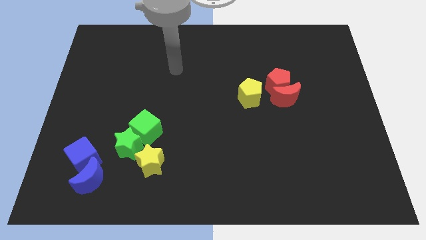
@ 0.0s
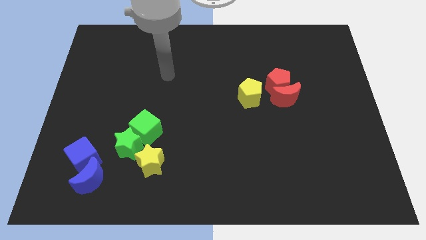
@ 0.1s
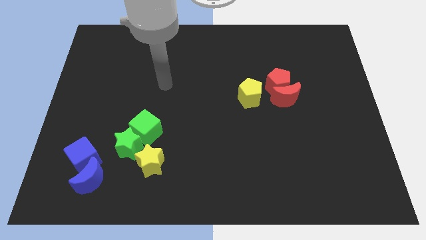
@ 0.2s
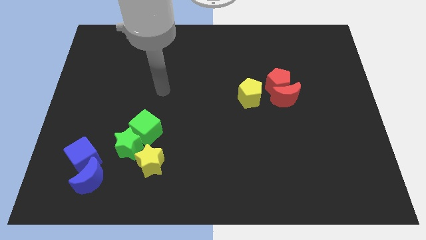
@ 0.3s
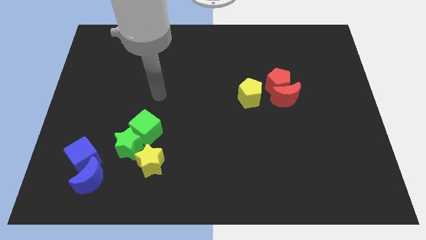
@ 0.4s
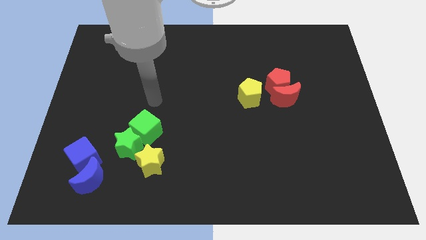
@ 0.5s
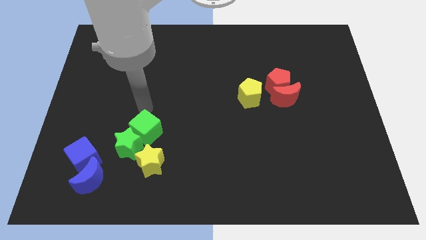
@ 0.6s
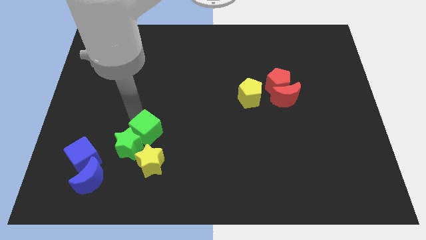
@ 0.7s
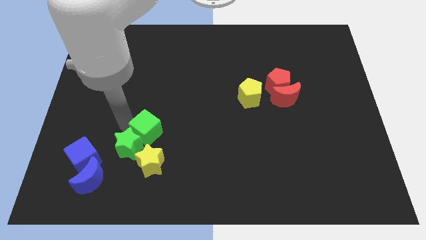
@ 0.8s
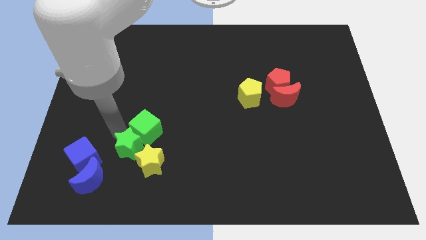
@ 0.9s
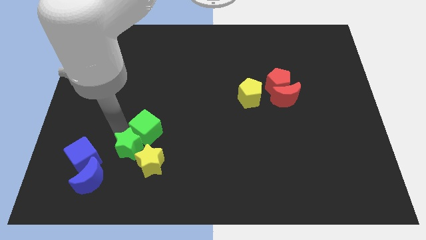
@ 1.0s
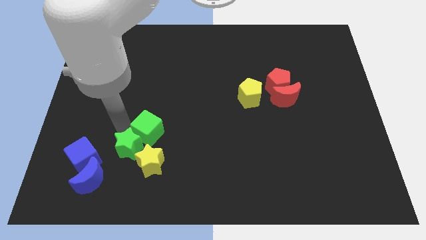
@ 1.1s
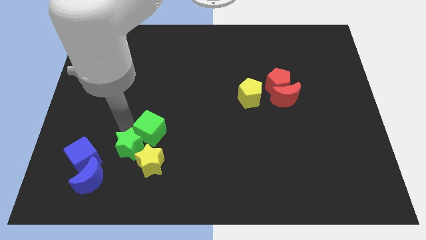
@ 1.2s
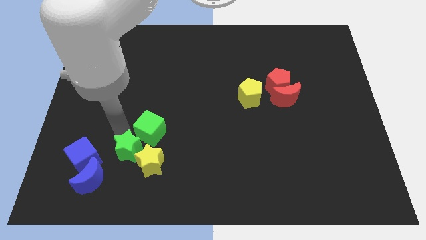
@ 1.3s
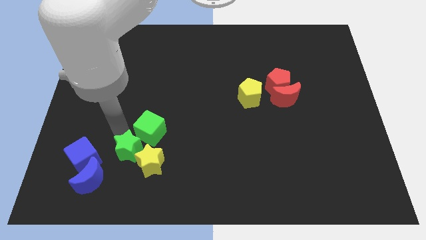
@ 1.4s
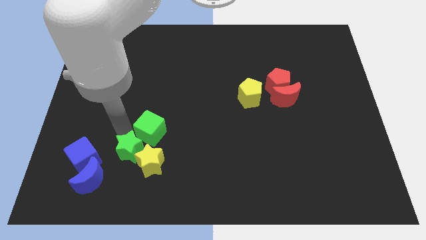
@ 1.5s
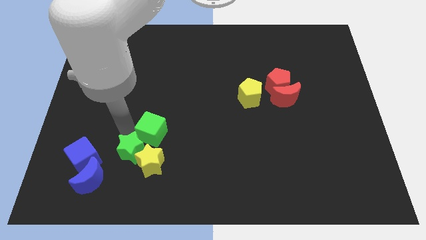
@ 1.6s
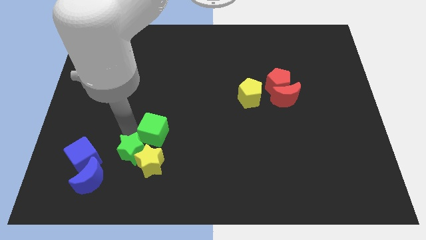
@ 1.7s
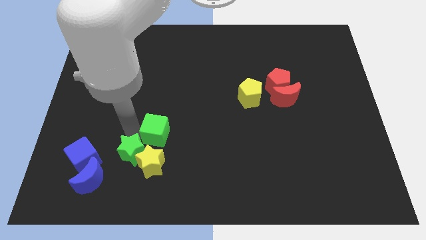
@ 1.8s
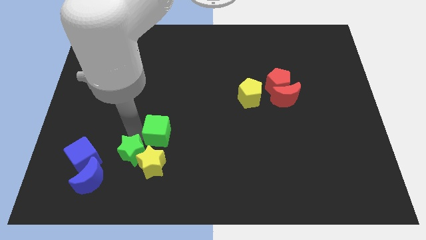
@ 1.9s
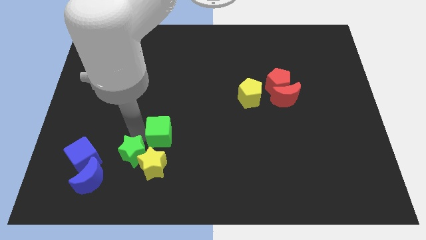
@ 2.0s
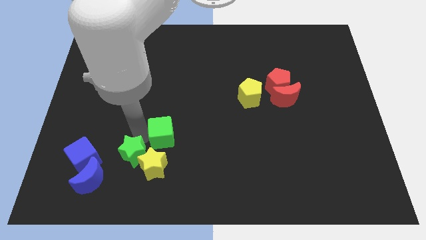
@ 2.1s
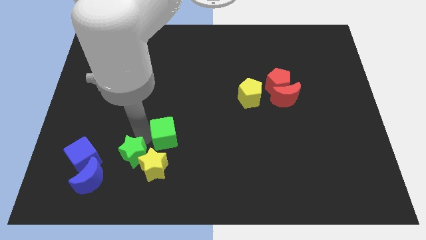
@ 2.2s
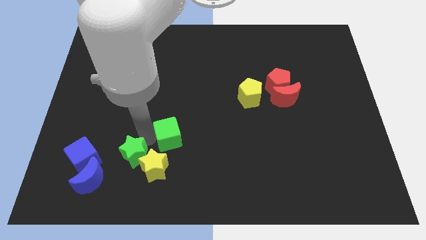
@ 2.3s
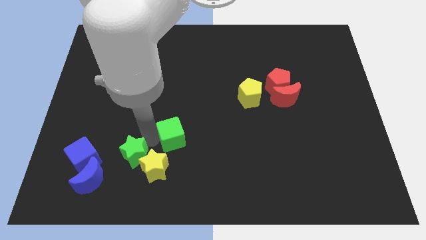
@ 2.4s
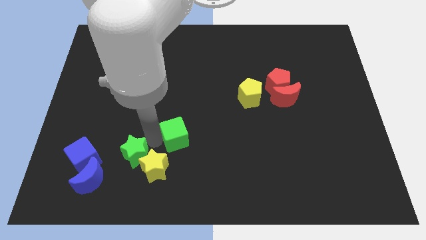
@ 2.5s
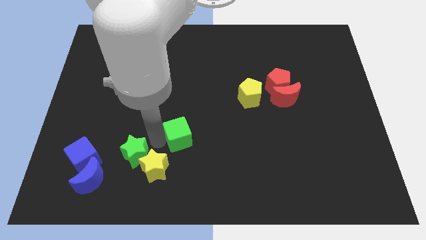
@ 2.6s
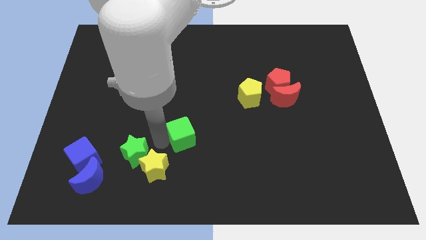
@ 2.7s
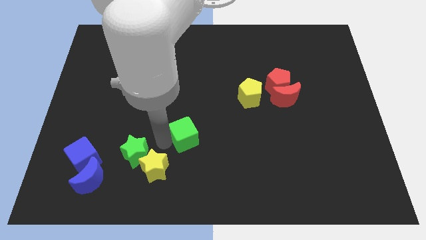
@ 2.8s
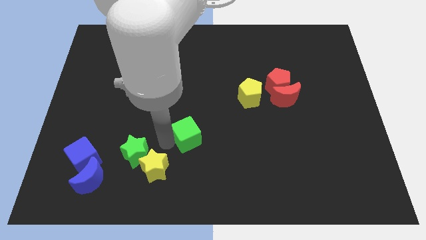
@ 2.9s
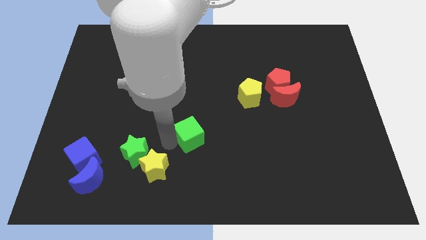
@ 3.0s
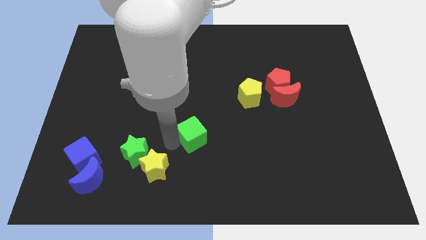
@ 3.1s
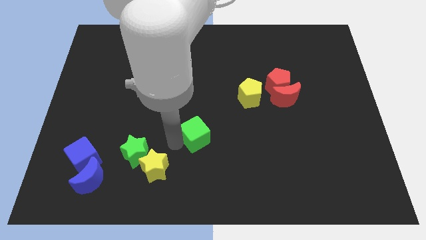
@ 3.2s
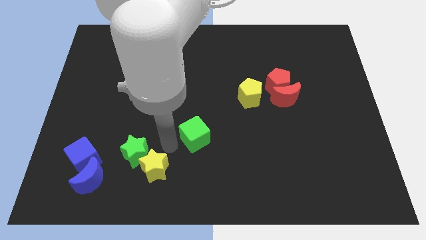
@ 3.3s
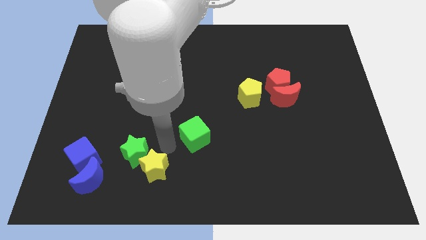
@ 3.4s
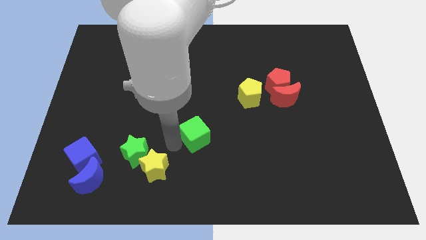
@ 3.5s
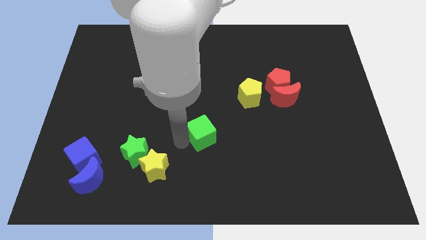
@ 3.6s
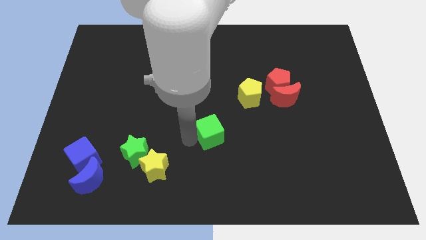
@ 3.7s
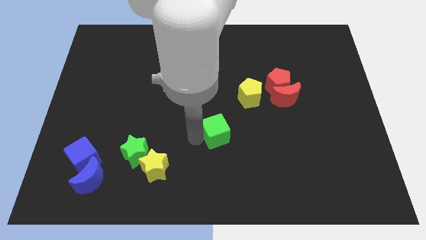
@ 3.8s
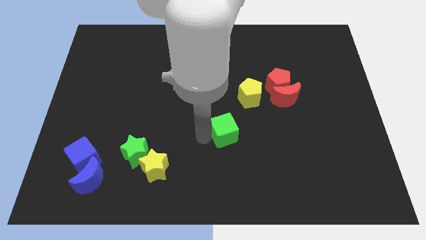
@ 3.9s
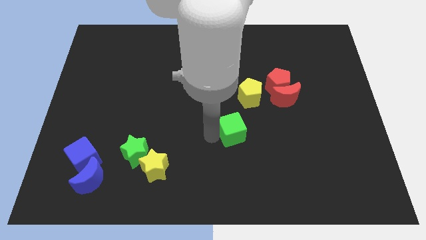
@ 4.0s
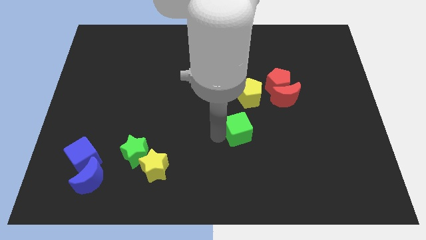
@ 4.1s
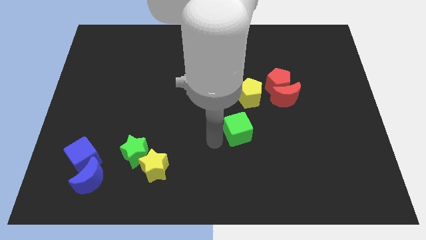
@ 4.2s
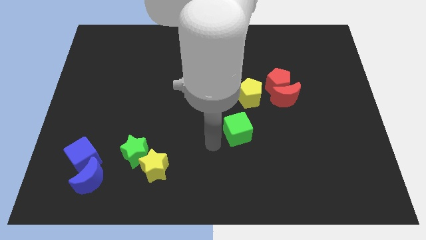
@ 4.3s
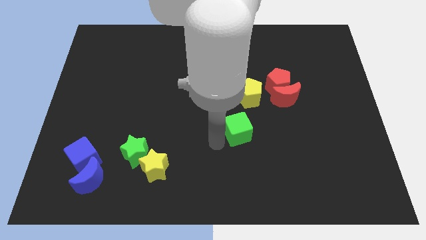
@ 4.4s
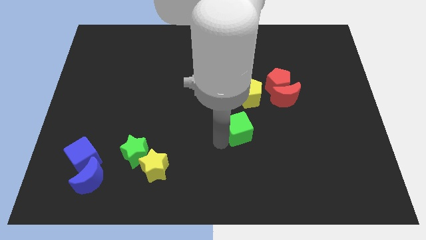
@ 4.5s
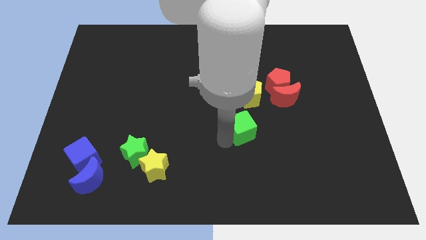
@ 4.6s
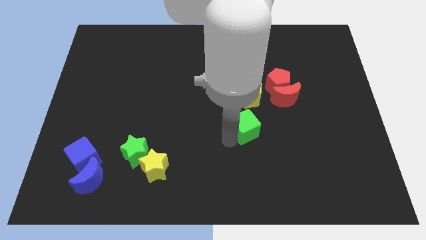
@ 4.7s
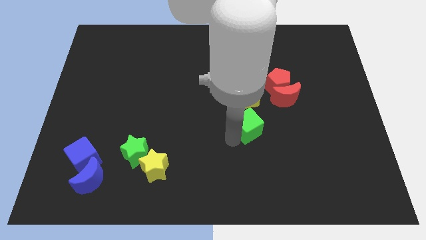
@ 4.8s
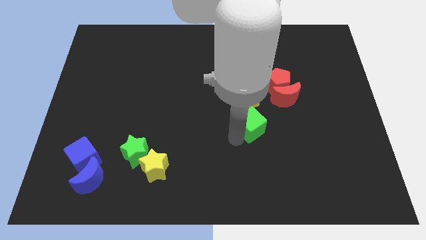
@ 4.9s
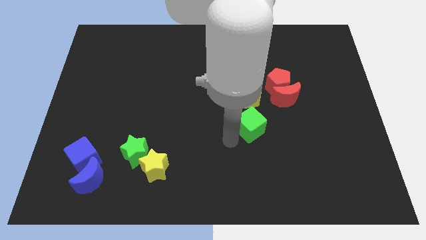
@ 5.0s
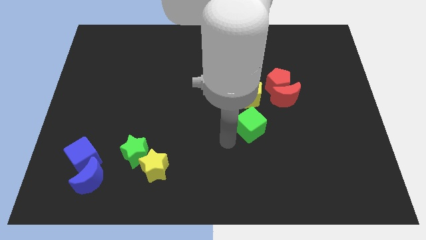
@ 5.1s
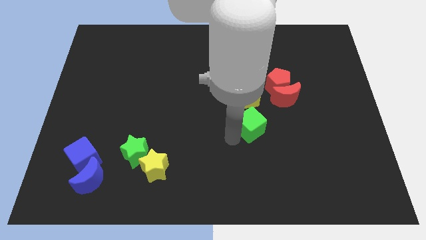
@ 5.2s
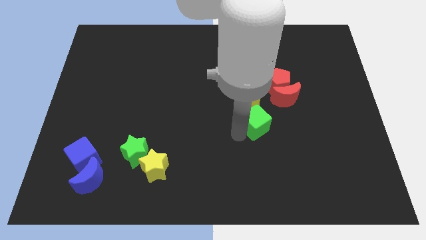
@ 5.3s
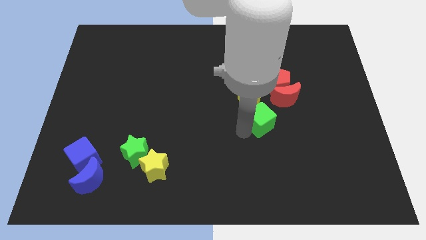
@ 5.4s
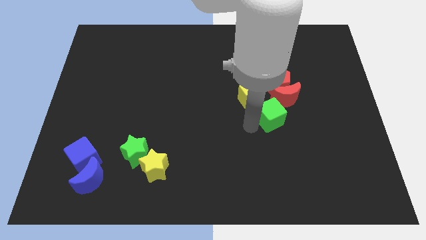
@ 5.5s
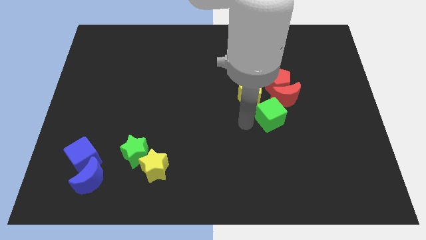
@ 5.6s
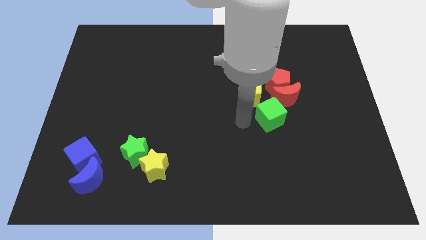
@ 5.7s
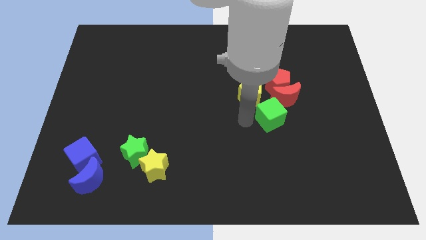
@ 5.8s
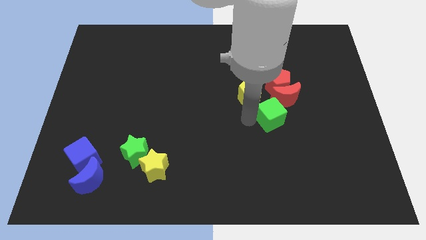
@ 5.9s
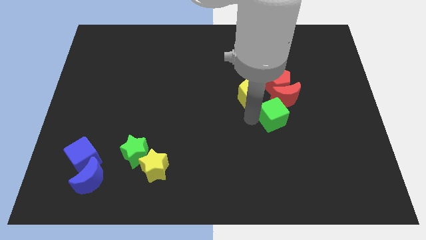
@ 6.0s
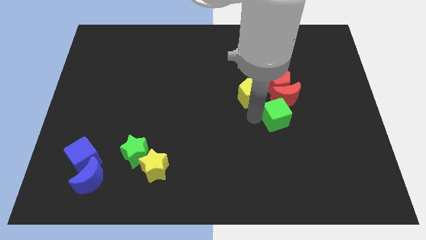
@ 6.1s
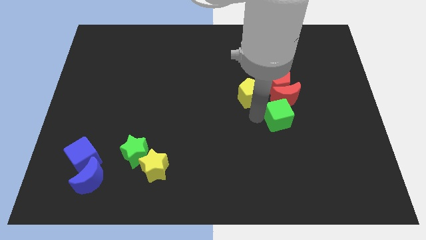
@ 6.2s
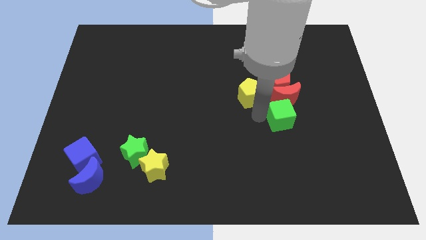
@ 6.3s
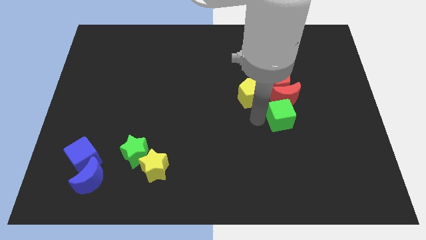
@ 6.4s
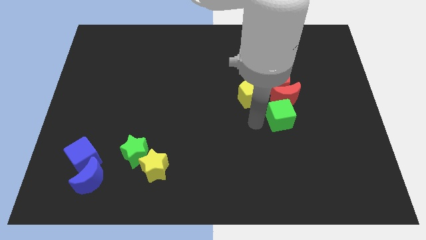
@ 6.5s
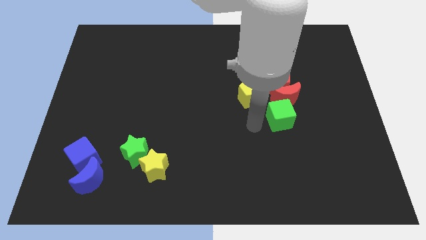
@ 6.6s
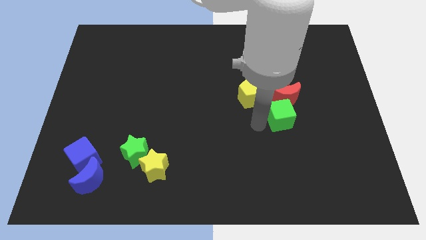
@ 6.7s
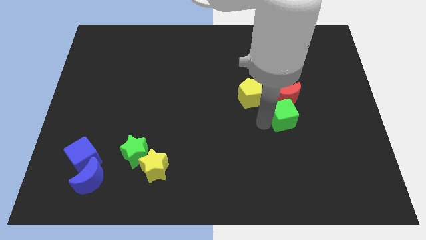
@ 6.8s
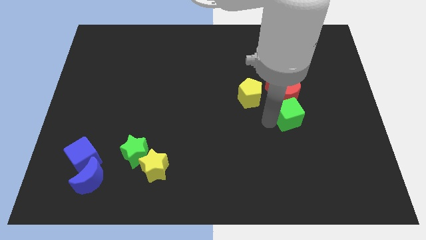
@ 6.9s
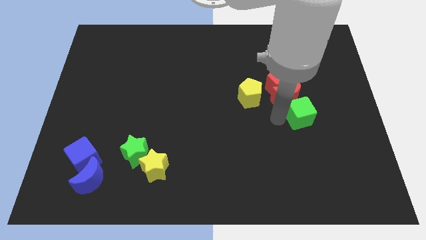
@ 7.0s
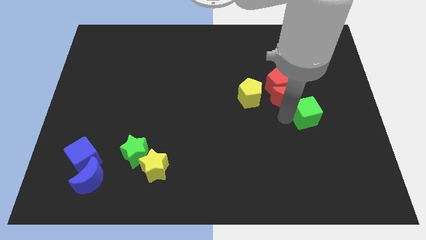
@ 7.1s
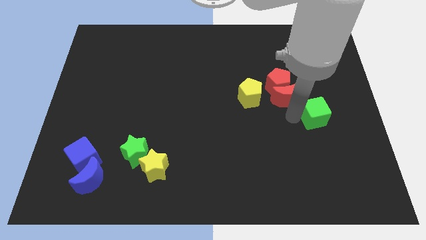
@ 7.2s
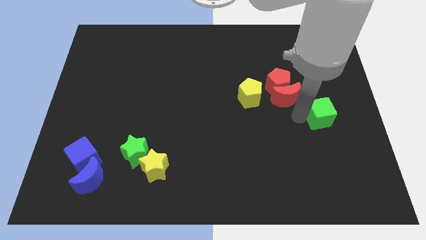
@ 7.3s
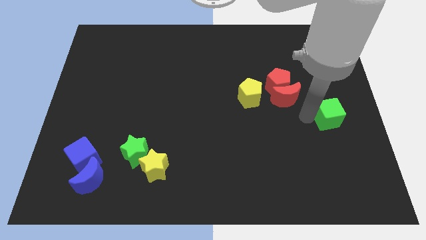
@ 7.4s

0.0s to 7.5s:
push the green cube to the center right
